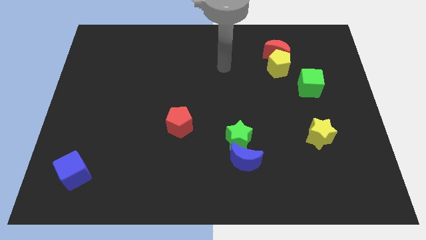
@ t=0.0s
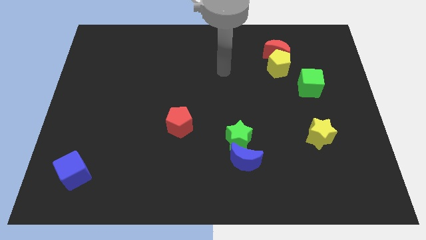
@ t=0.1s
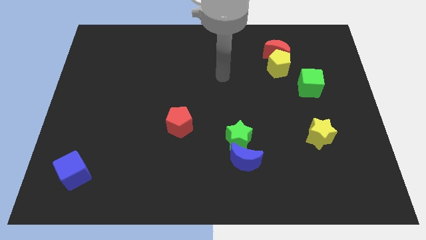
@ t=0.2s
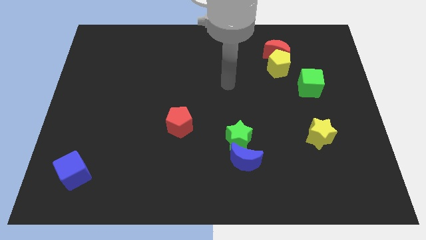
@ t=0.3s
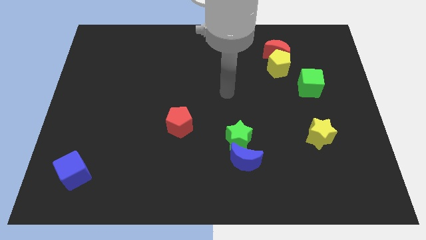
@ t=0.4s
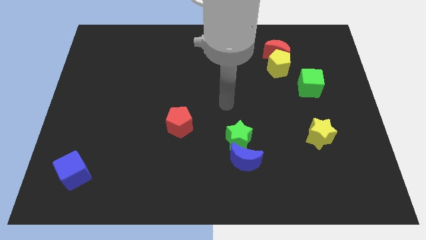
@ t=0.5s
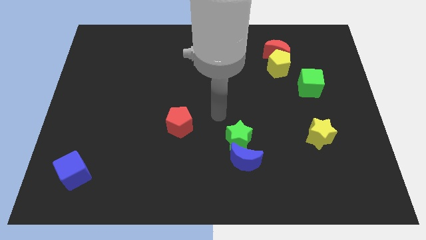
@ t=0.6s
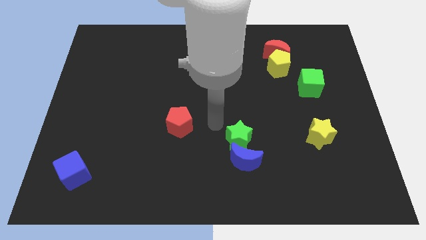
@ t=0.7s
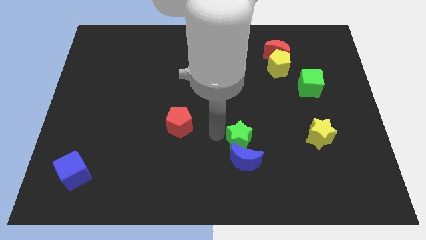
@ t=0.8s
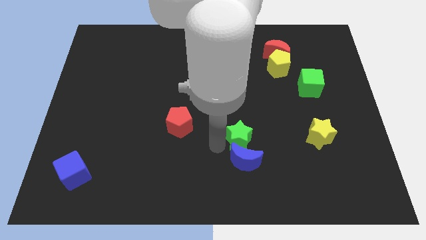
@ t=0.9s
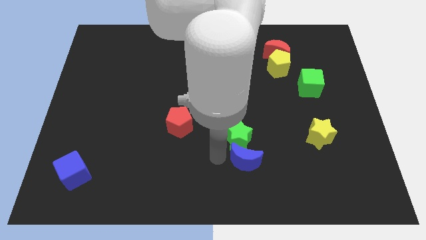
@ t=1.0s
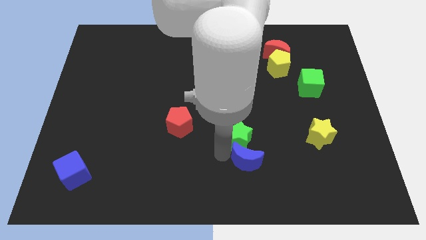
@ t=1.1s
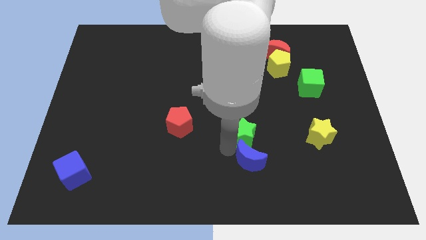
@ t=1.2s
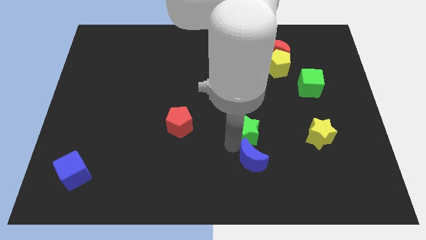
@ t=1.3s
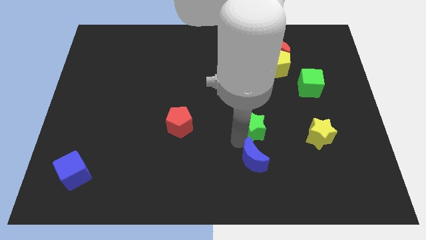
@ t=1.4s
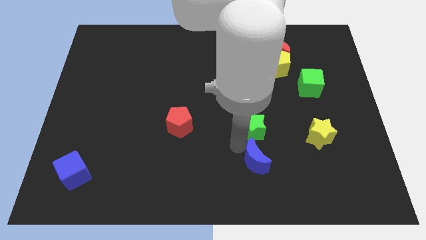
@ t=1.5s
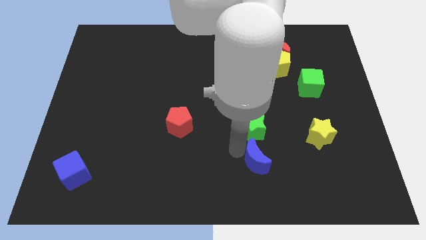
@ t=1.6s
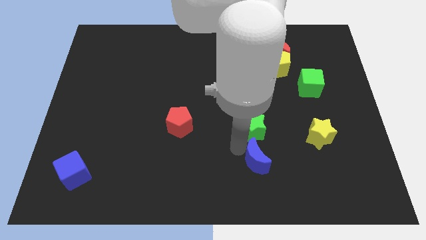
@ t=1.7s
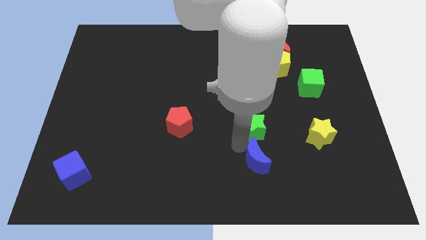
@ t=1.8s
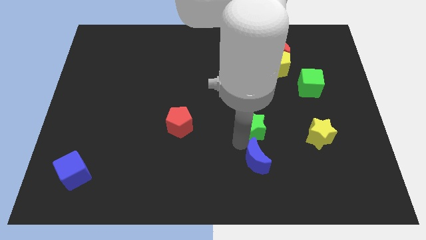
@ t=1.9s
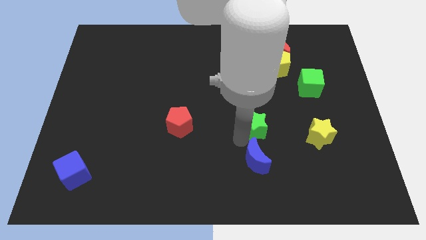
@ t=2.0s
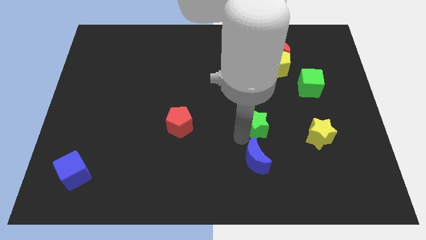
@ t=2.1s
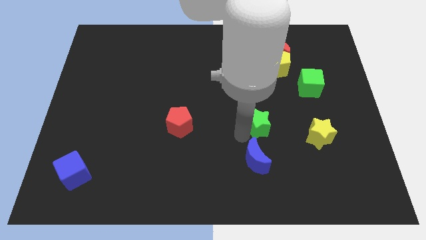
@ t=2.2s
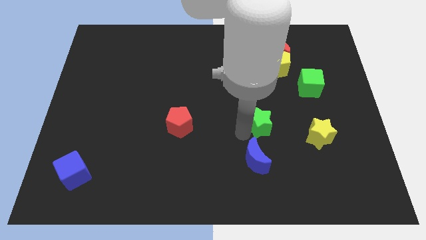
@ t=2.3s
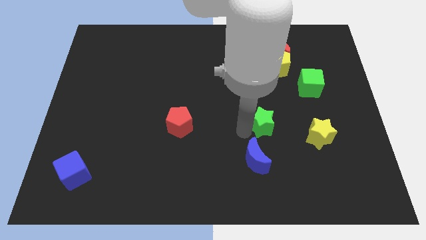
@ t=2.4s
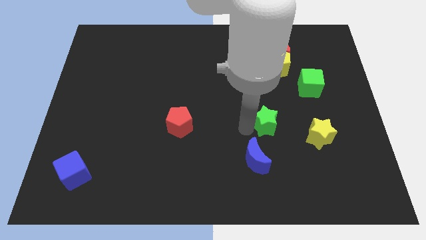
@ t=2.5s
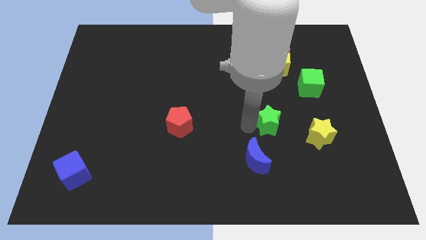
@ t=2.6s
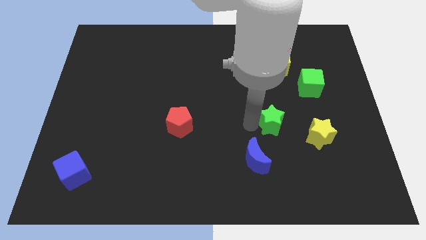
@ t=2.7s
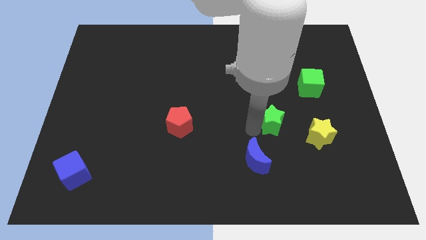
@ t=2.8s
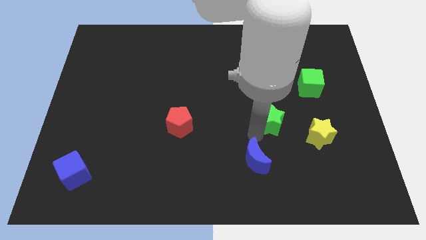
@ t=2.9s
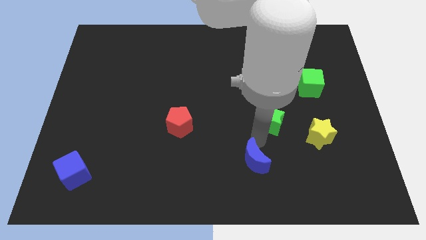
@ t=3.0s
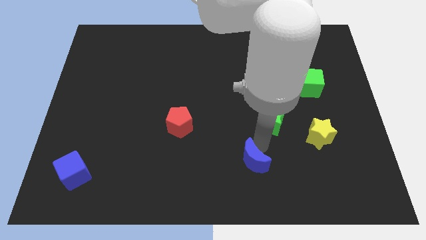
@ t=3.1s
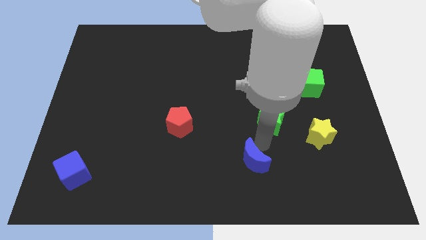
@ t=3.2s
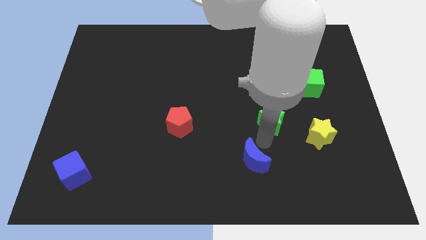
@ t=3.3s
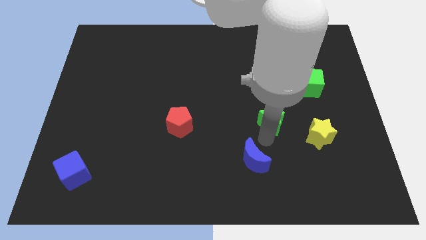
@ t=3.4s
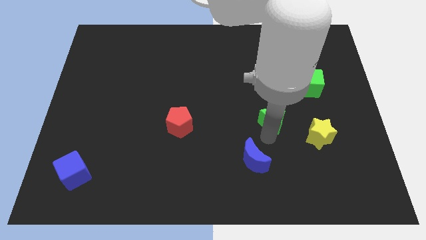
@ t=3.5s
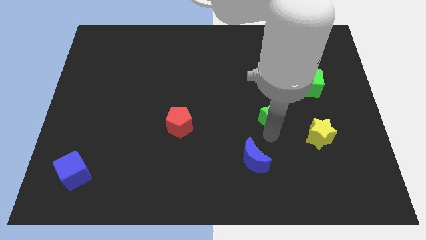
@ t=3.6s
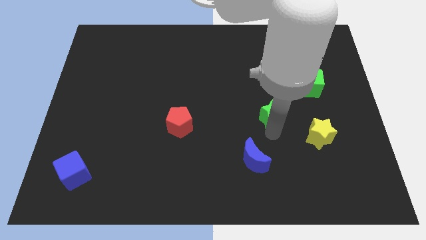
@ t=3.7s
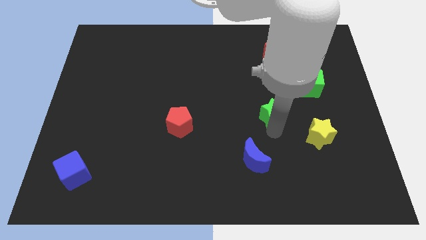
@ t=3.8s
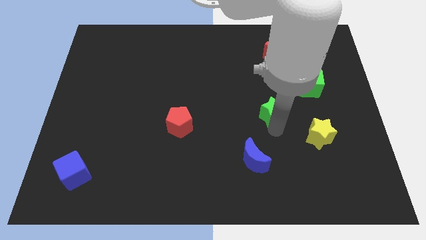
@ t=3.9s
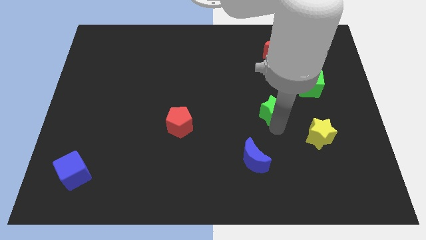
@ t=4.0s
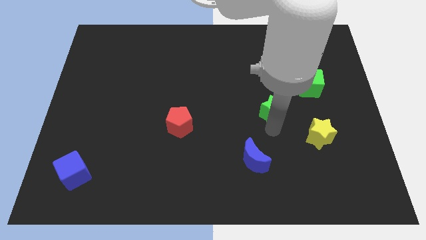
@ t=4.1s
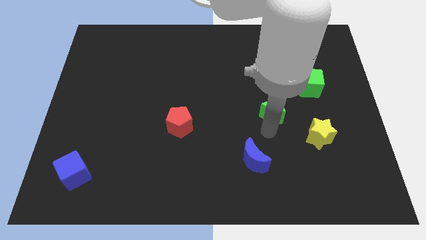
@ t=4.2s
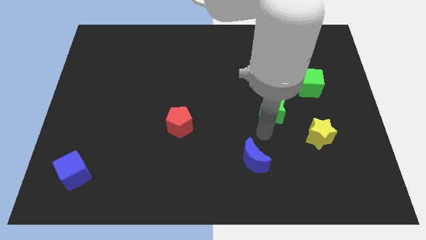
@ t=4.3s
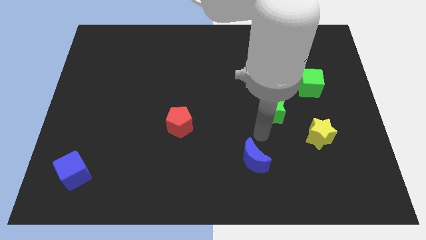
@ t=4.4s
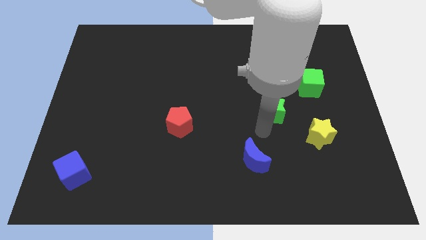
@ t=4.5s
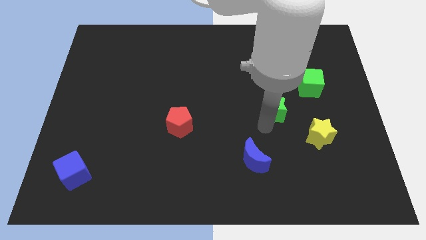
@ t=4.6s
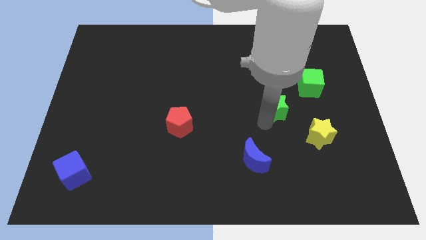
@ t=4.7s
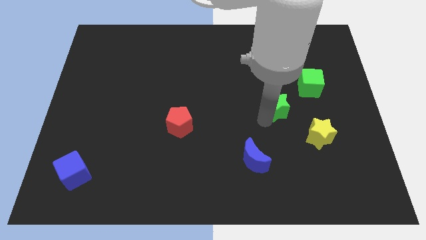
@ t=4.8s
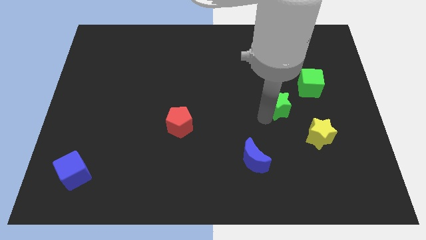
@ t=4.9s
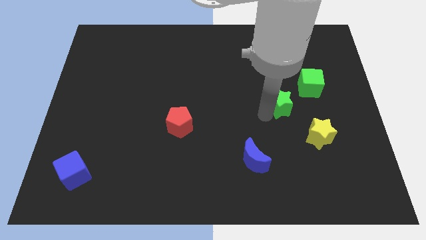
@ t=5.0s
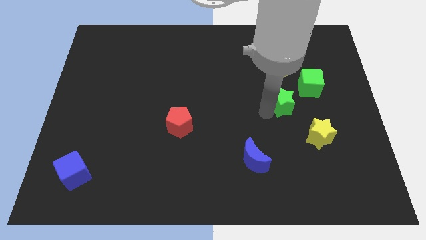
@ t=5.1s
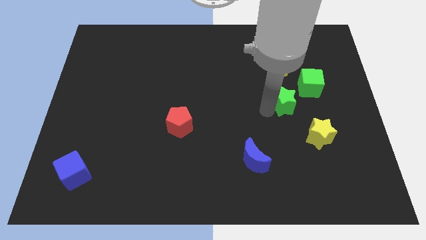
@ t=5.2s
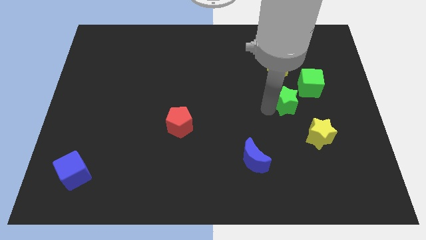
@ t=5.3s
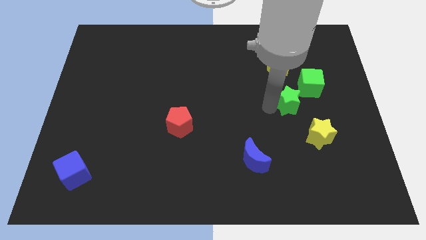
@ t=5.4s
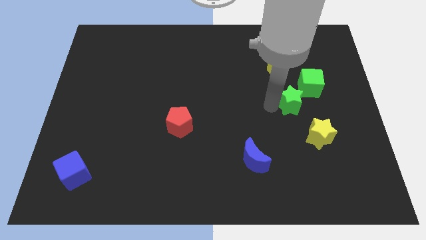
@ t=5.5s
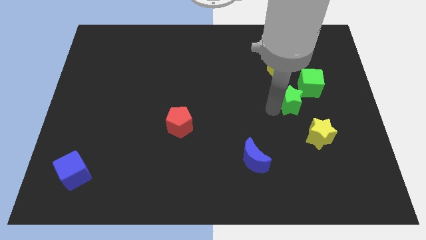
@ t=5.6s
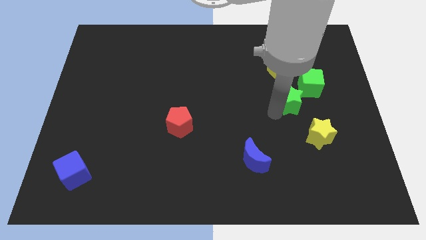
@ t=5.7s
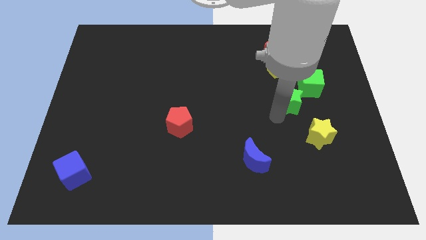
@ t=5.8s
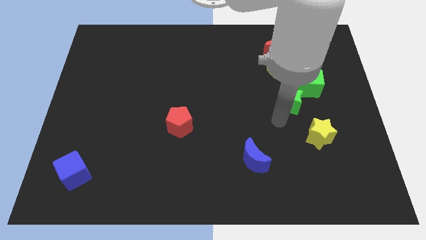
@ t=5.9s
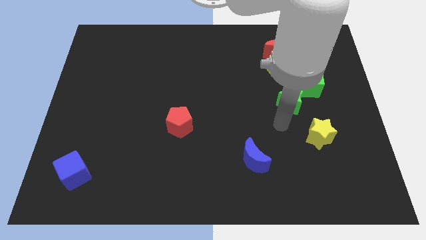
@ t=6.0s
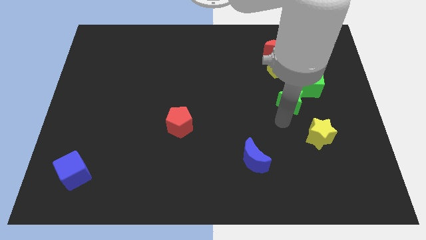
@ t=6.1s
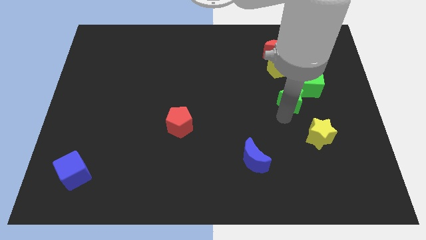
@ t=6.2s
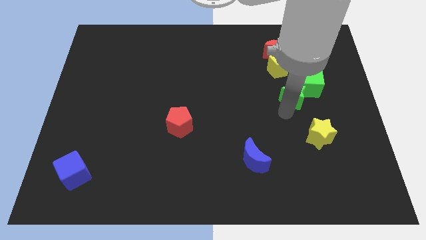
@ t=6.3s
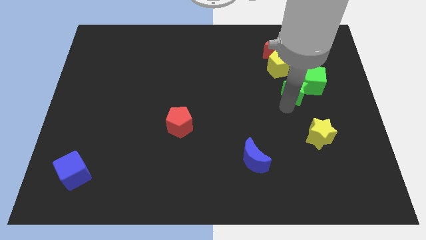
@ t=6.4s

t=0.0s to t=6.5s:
put the green star next to the green cube

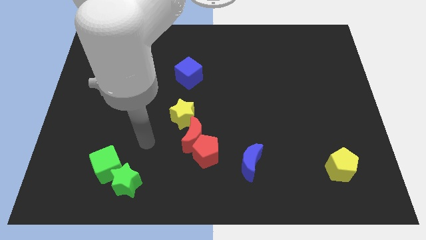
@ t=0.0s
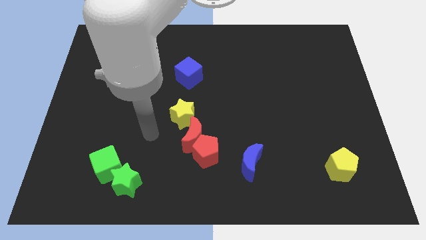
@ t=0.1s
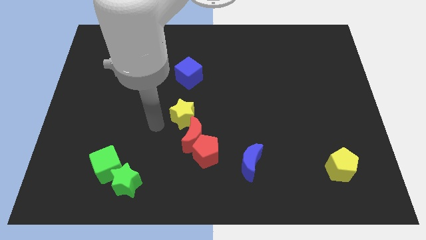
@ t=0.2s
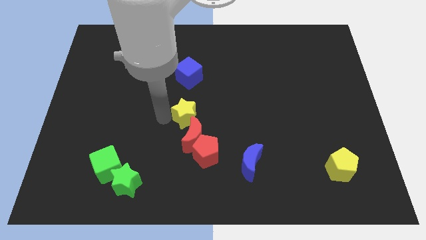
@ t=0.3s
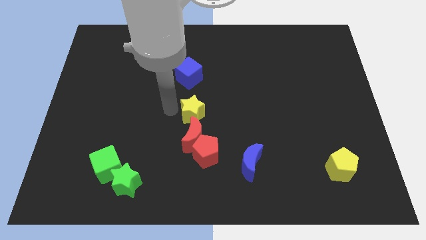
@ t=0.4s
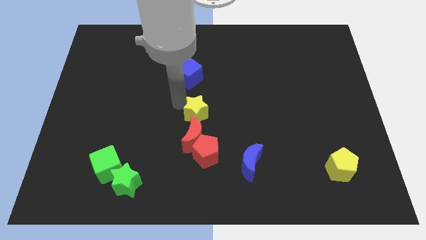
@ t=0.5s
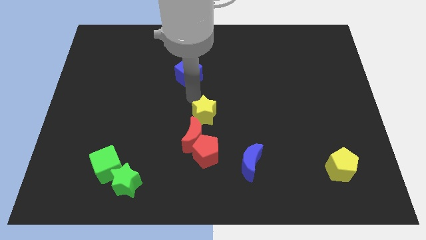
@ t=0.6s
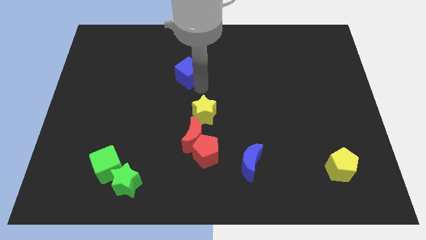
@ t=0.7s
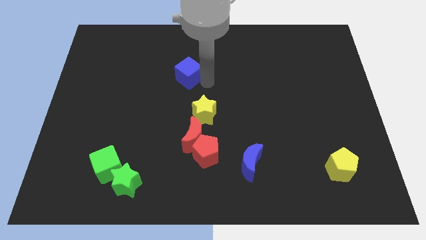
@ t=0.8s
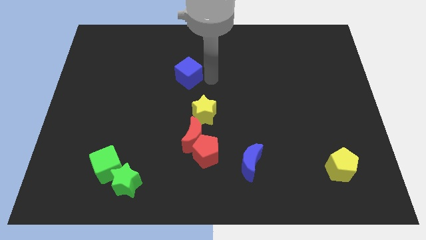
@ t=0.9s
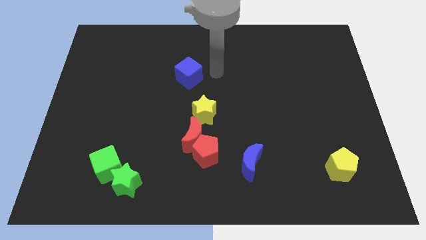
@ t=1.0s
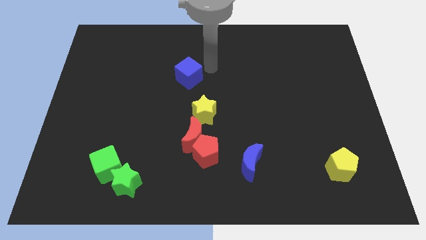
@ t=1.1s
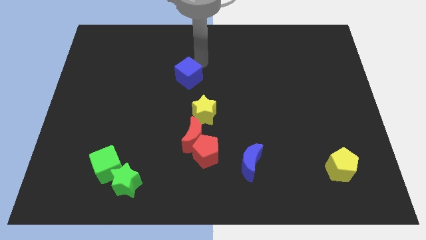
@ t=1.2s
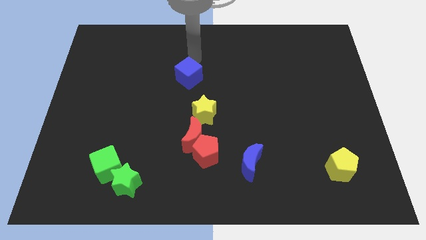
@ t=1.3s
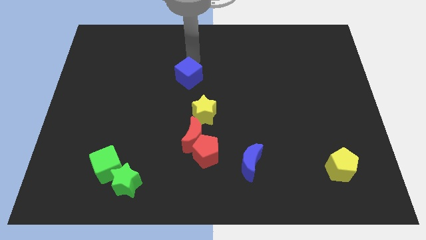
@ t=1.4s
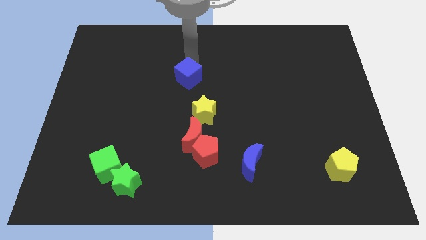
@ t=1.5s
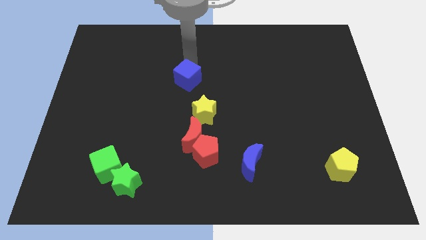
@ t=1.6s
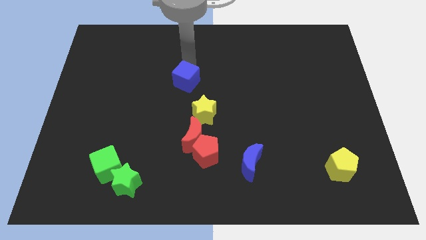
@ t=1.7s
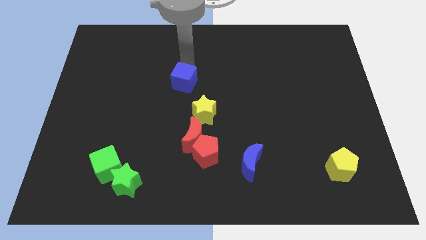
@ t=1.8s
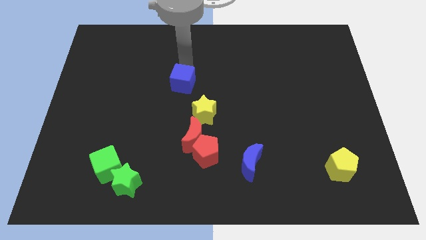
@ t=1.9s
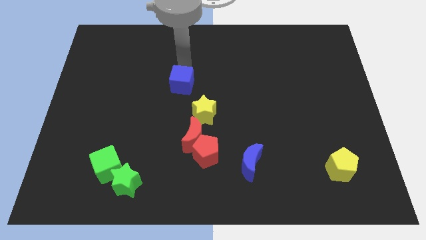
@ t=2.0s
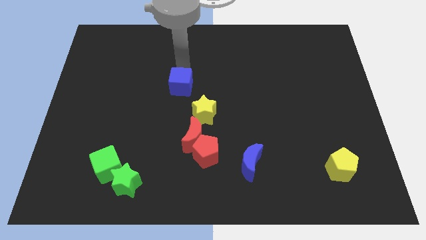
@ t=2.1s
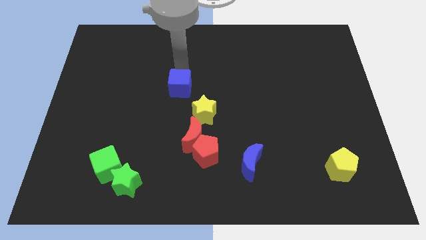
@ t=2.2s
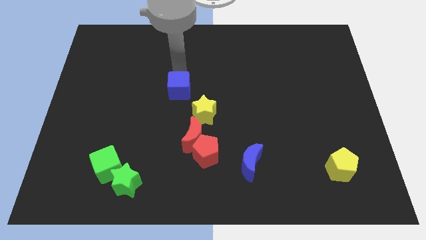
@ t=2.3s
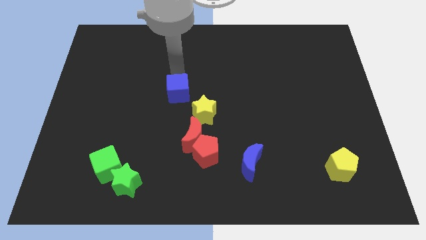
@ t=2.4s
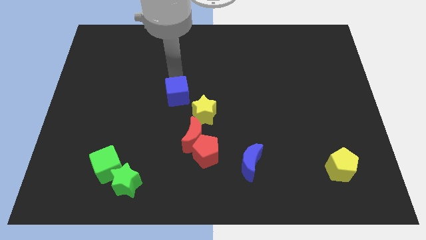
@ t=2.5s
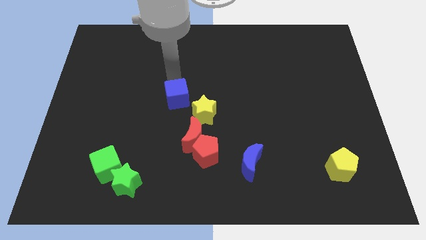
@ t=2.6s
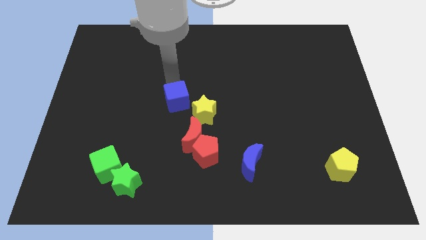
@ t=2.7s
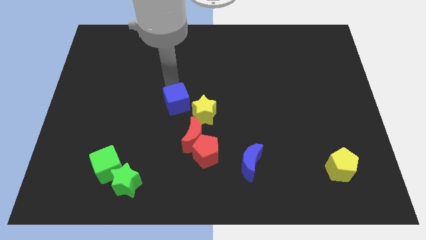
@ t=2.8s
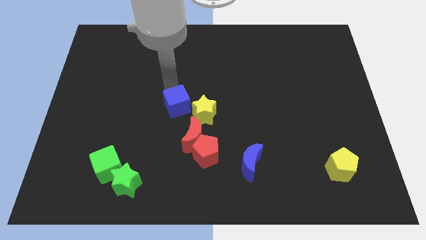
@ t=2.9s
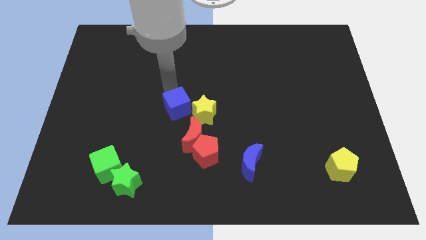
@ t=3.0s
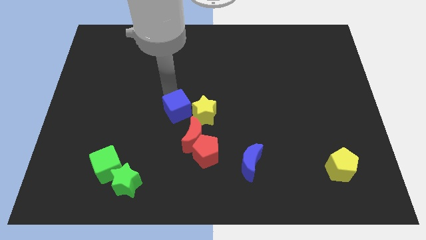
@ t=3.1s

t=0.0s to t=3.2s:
put the blue cube close to the yellow star
